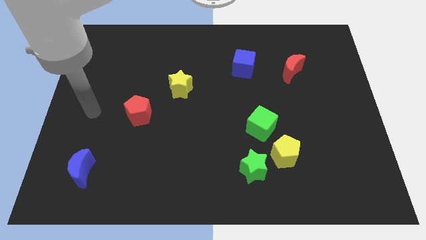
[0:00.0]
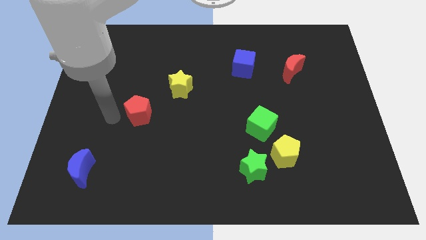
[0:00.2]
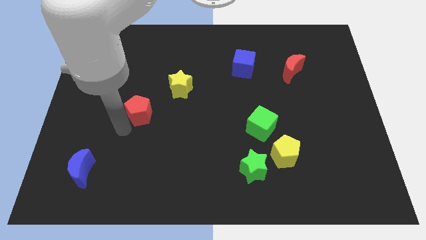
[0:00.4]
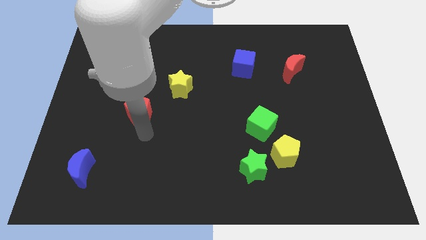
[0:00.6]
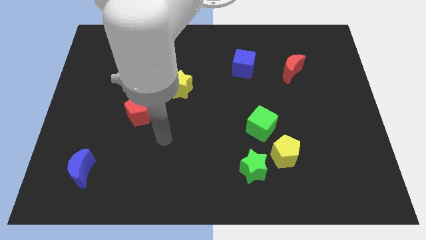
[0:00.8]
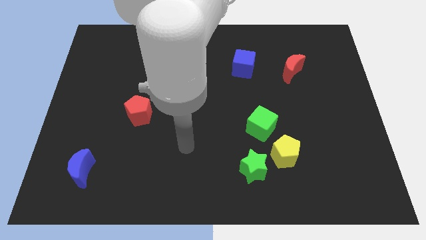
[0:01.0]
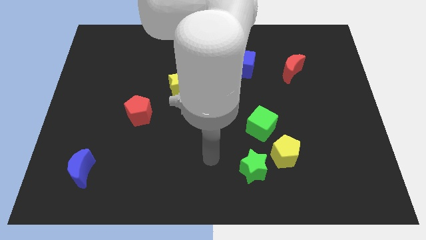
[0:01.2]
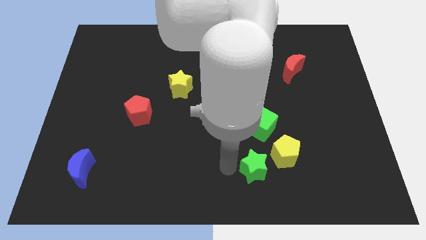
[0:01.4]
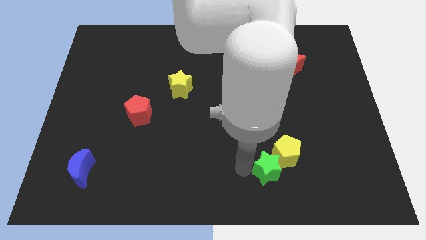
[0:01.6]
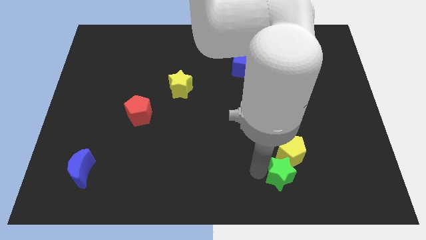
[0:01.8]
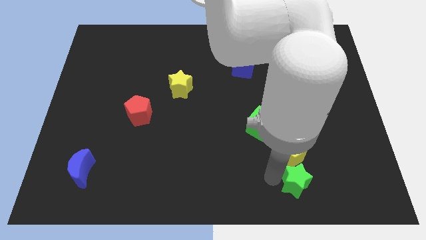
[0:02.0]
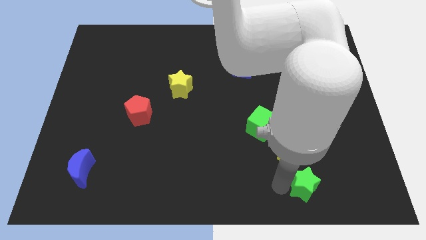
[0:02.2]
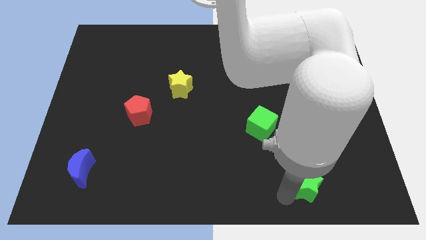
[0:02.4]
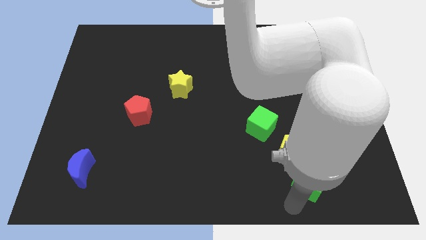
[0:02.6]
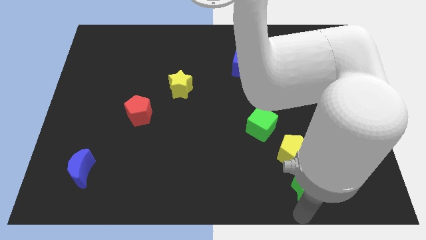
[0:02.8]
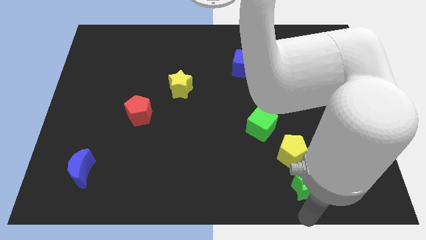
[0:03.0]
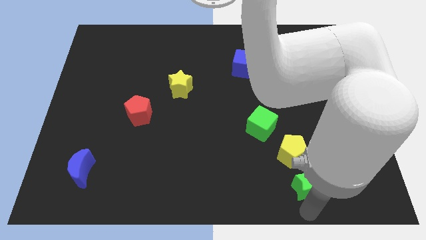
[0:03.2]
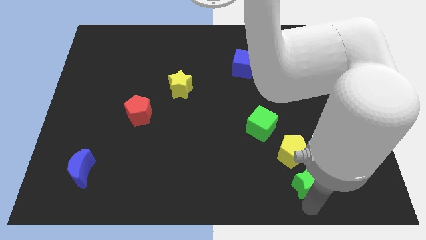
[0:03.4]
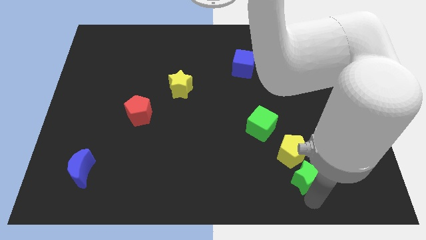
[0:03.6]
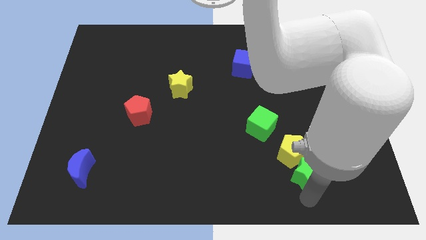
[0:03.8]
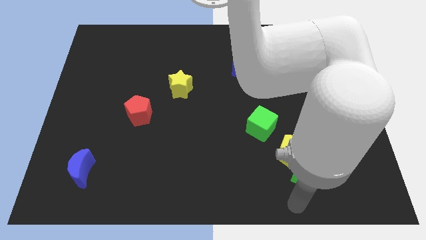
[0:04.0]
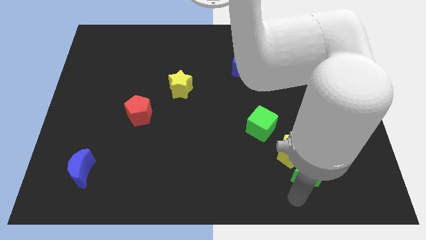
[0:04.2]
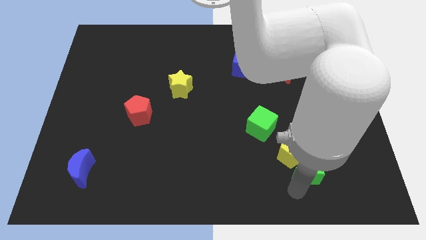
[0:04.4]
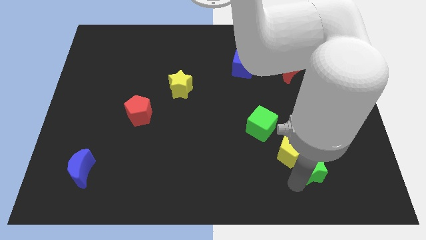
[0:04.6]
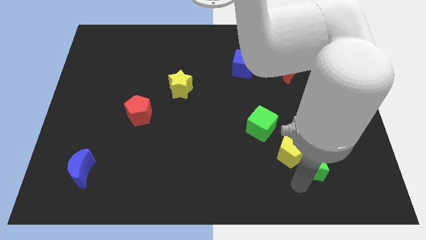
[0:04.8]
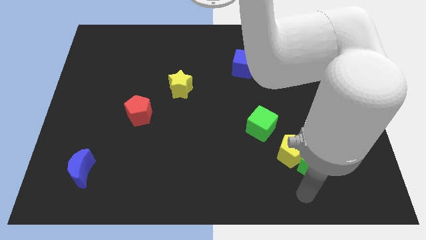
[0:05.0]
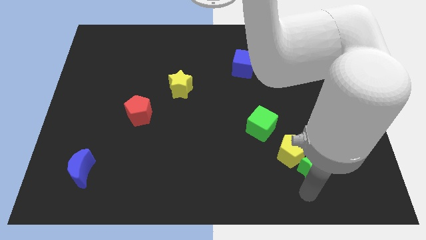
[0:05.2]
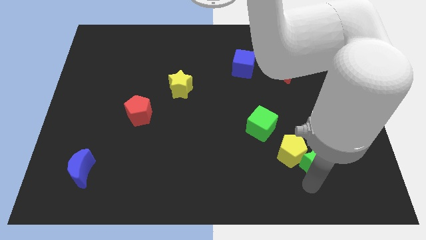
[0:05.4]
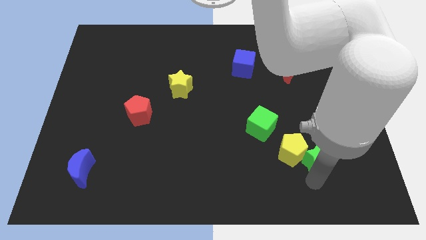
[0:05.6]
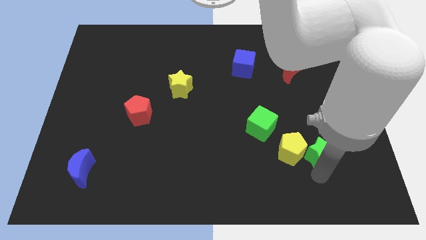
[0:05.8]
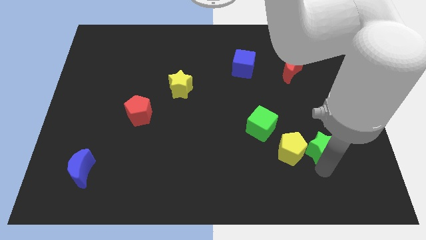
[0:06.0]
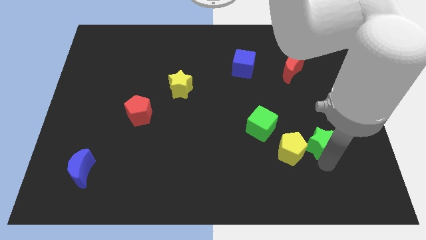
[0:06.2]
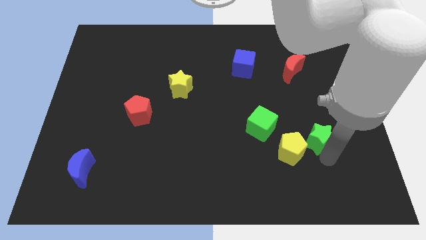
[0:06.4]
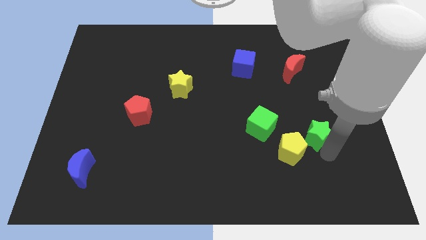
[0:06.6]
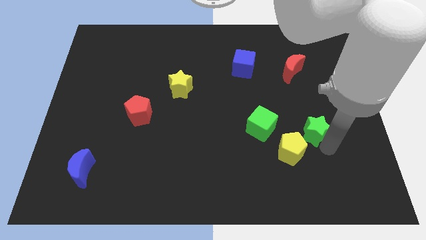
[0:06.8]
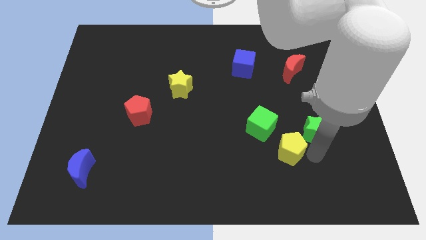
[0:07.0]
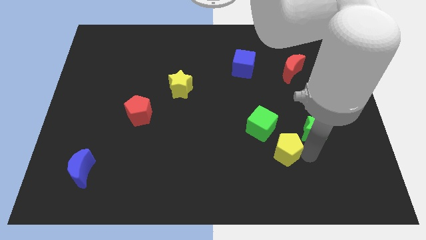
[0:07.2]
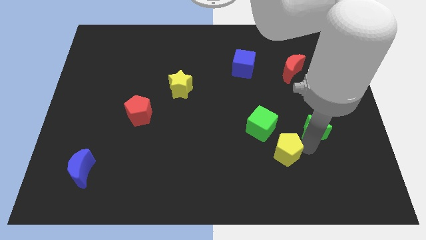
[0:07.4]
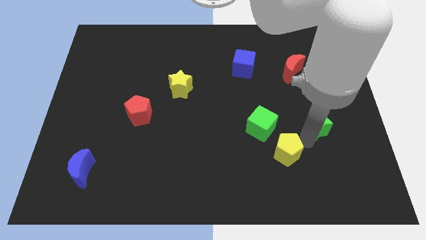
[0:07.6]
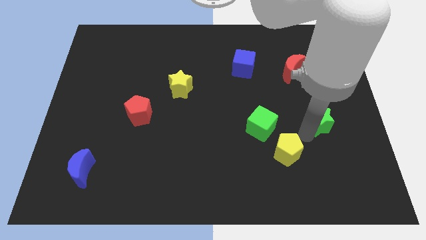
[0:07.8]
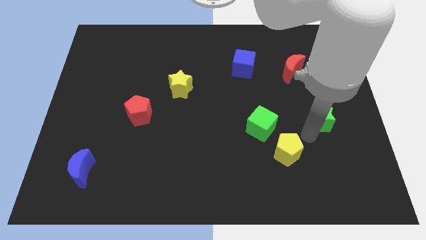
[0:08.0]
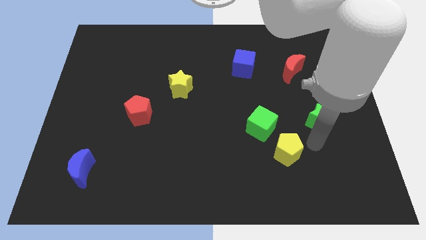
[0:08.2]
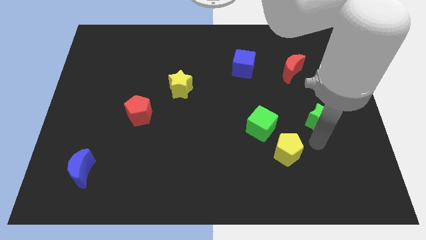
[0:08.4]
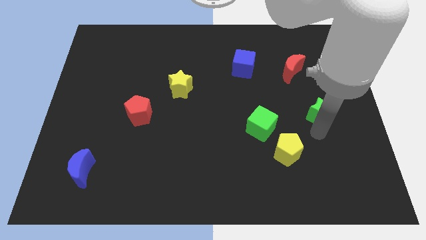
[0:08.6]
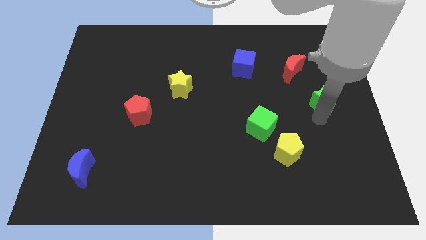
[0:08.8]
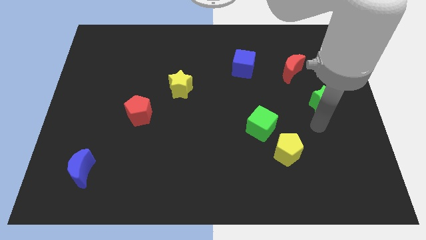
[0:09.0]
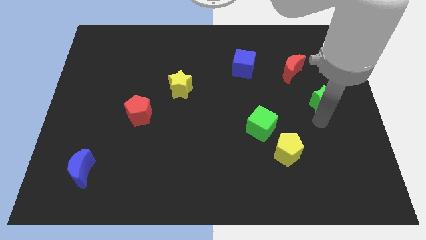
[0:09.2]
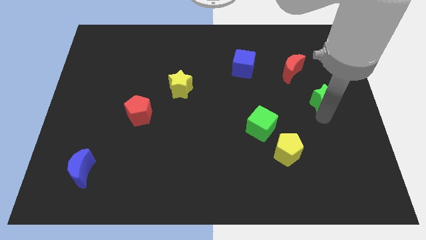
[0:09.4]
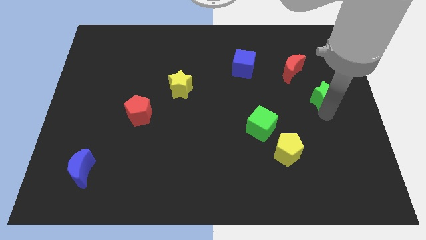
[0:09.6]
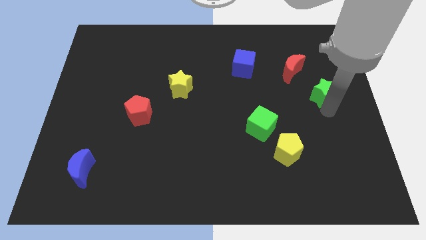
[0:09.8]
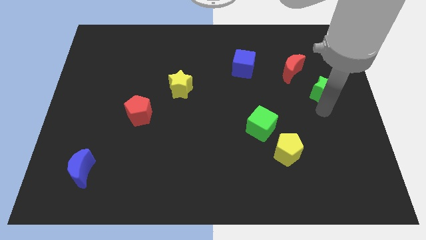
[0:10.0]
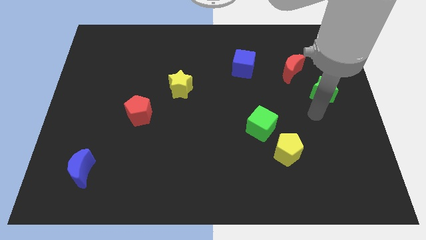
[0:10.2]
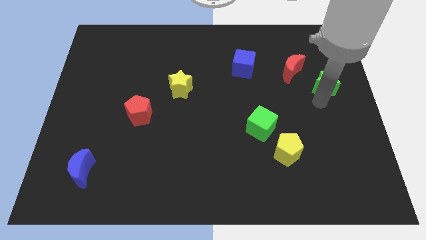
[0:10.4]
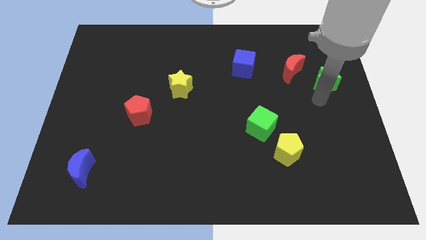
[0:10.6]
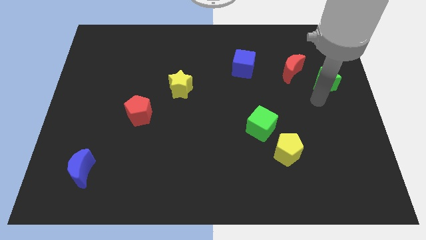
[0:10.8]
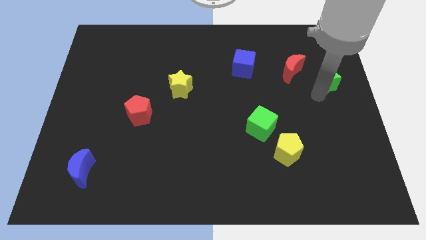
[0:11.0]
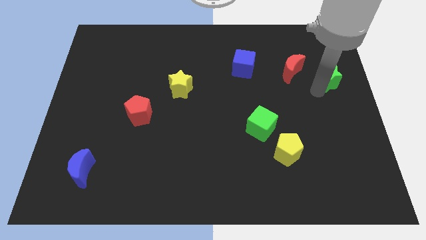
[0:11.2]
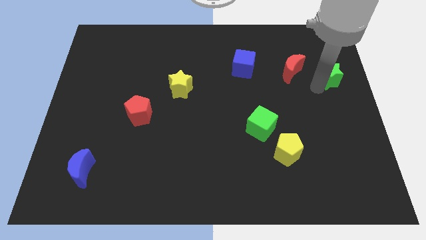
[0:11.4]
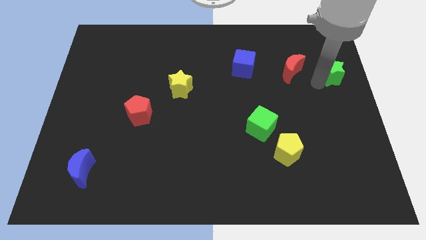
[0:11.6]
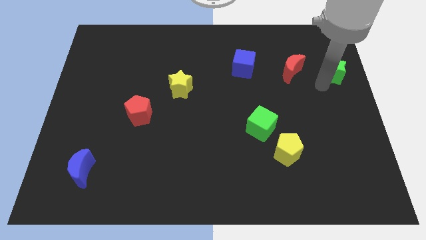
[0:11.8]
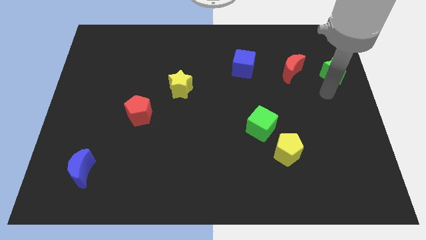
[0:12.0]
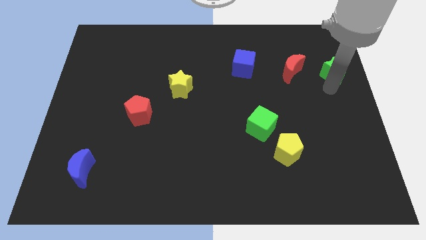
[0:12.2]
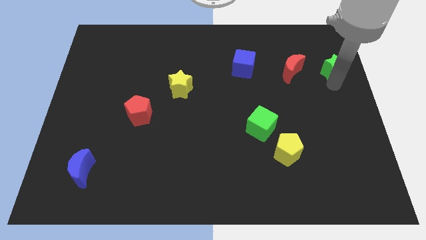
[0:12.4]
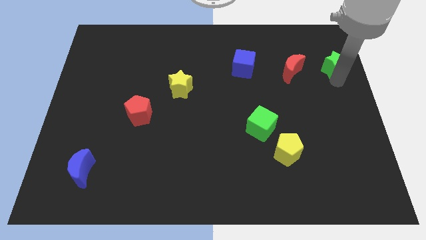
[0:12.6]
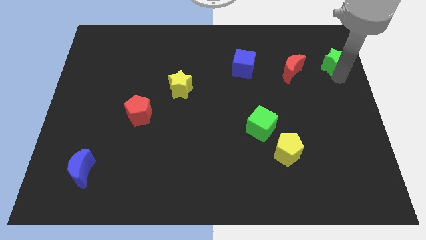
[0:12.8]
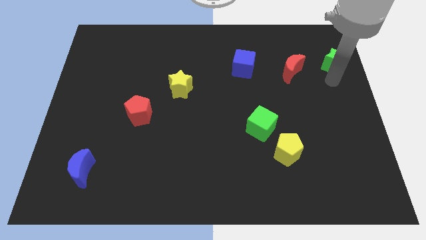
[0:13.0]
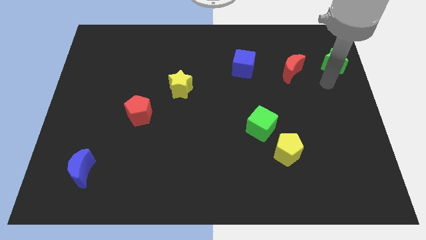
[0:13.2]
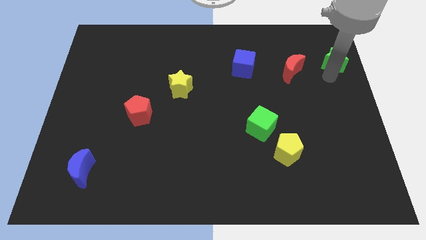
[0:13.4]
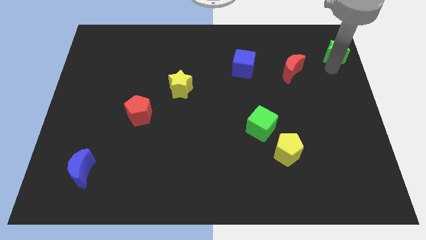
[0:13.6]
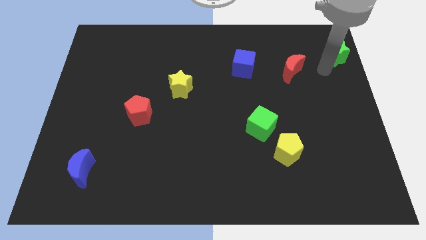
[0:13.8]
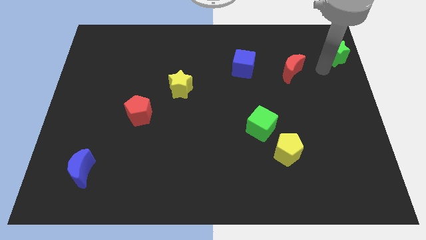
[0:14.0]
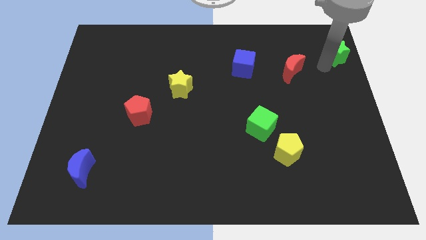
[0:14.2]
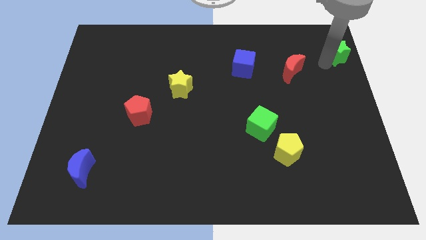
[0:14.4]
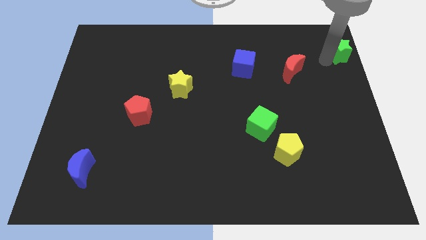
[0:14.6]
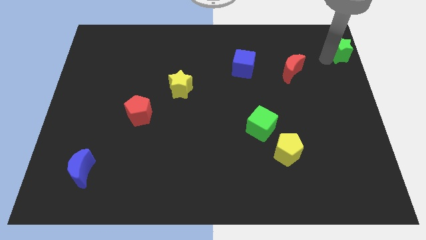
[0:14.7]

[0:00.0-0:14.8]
push the green star to the top right corner
